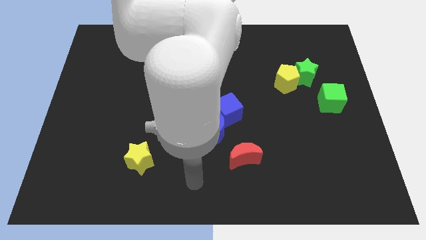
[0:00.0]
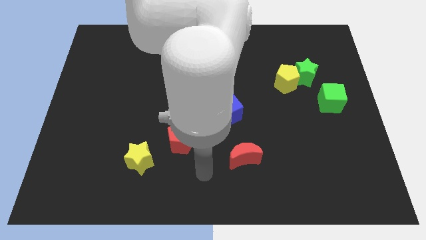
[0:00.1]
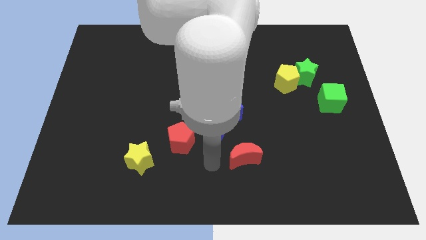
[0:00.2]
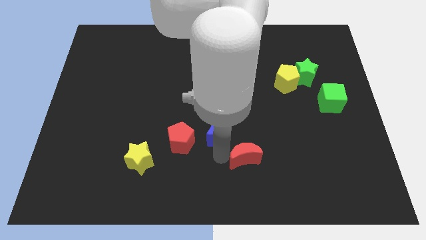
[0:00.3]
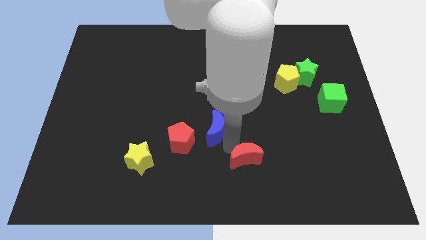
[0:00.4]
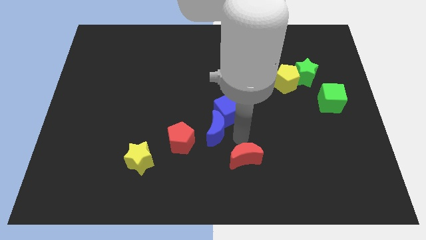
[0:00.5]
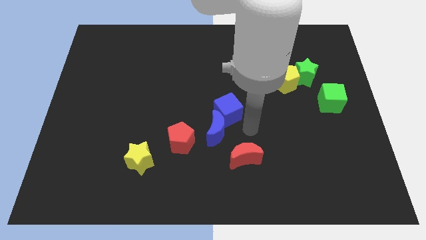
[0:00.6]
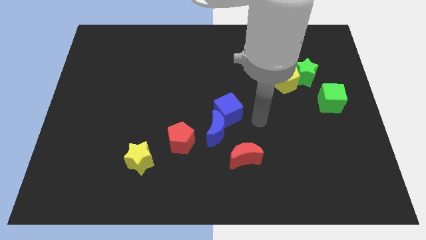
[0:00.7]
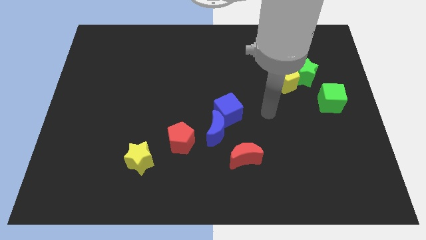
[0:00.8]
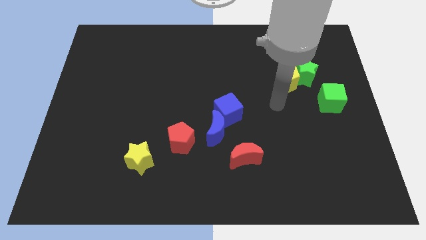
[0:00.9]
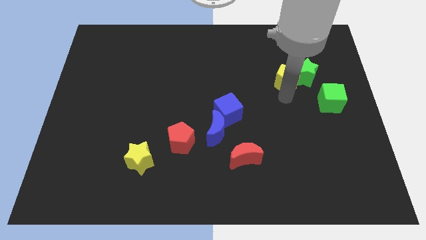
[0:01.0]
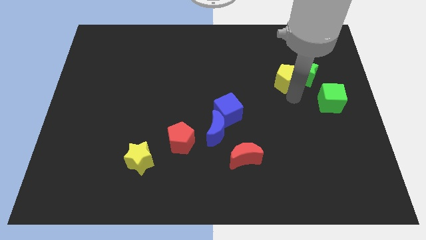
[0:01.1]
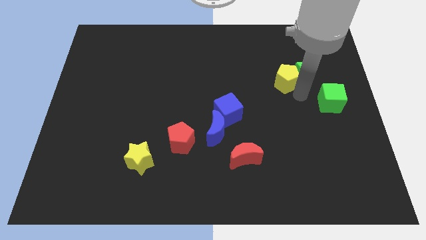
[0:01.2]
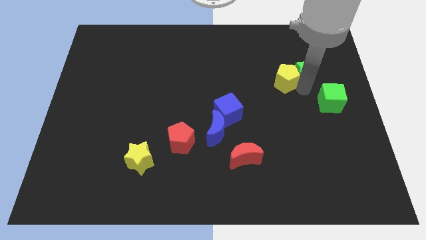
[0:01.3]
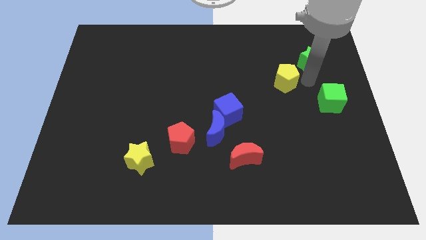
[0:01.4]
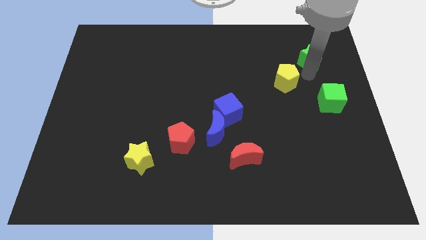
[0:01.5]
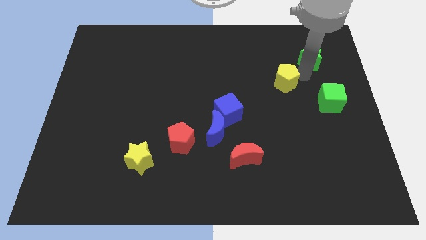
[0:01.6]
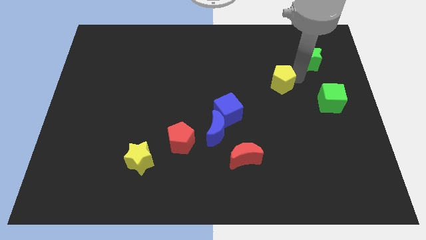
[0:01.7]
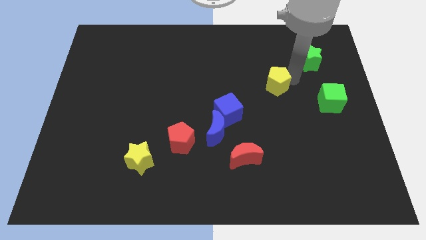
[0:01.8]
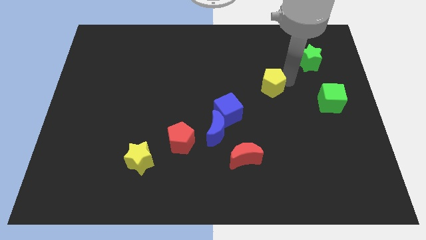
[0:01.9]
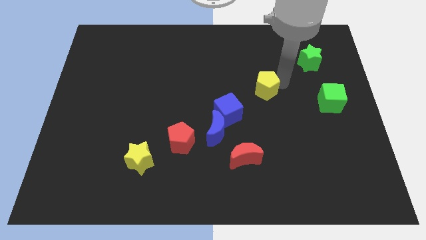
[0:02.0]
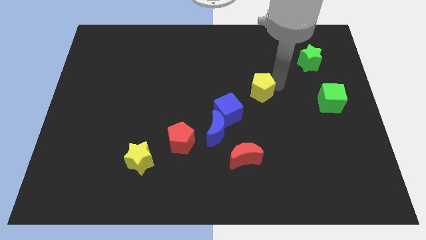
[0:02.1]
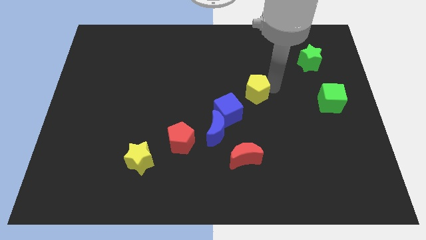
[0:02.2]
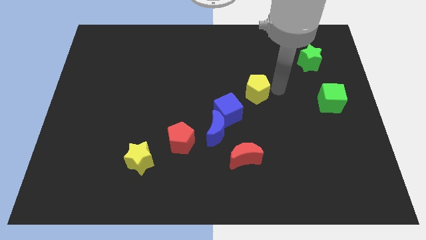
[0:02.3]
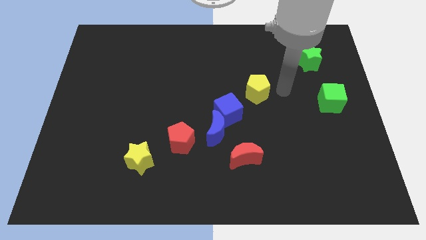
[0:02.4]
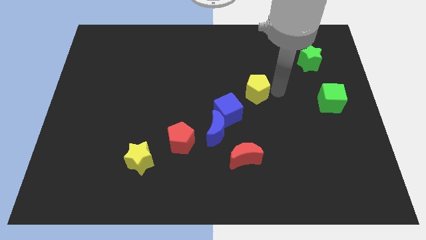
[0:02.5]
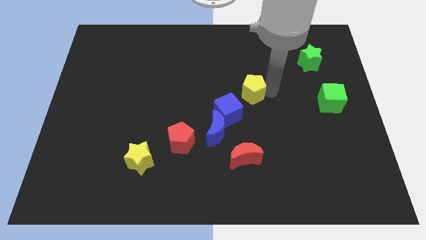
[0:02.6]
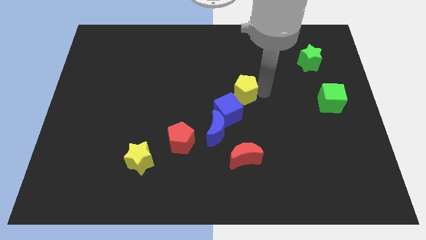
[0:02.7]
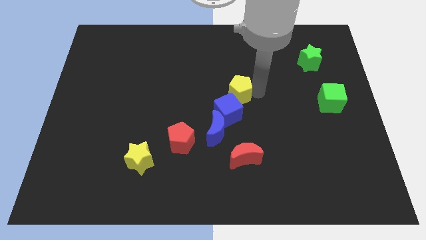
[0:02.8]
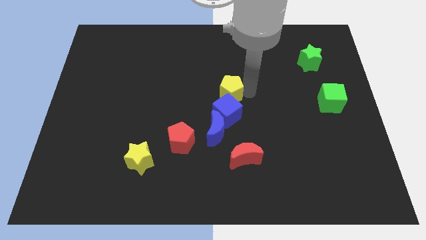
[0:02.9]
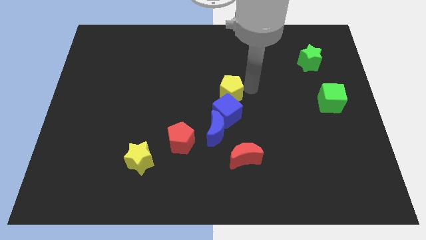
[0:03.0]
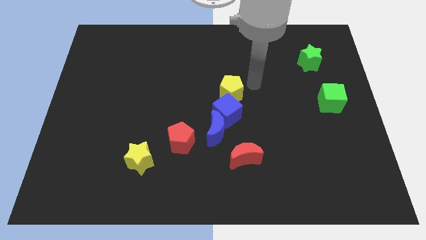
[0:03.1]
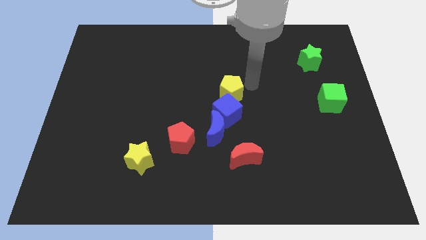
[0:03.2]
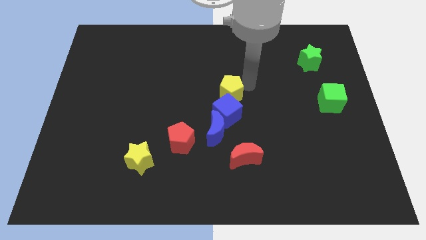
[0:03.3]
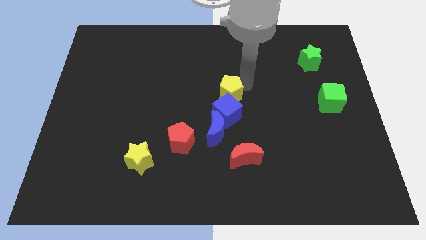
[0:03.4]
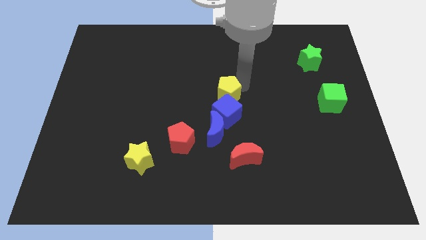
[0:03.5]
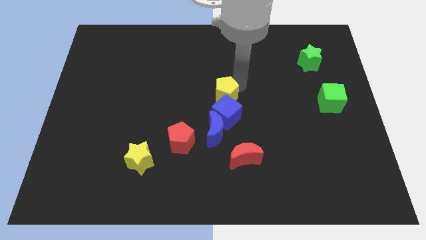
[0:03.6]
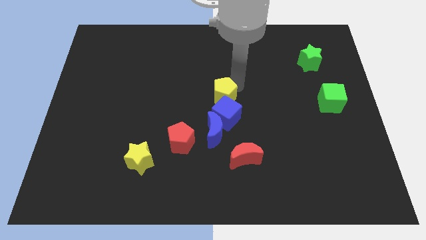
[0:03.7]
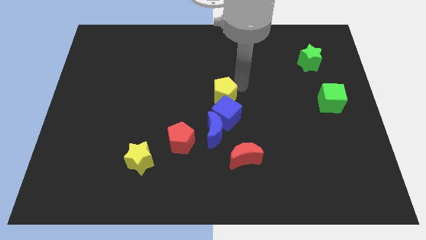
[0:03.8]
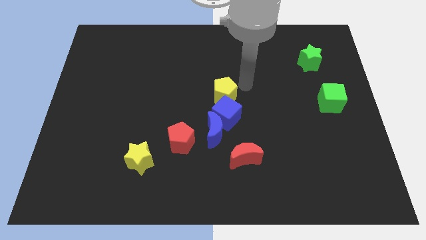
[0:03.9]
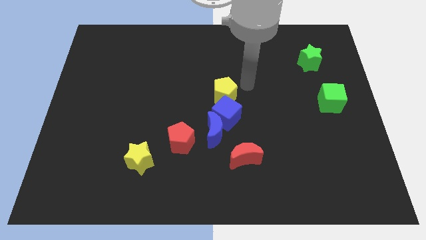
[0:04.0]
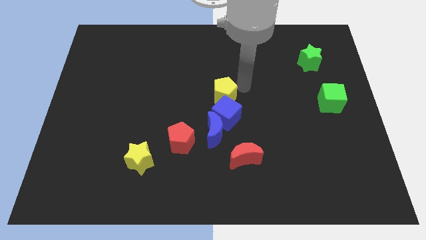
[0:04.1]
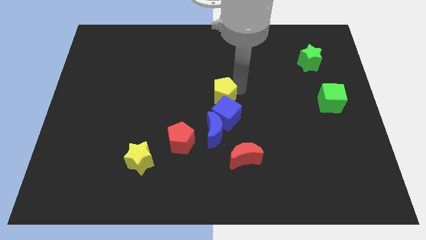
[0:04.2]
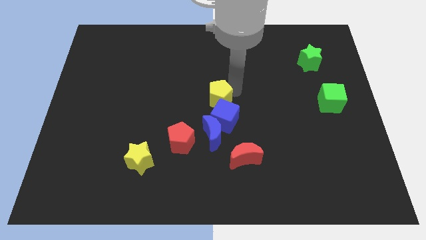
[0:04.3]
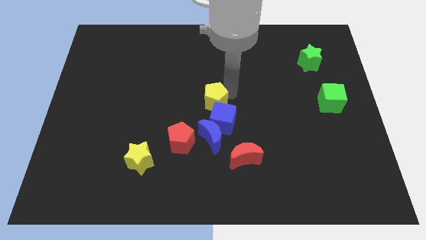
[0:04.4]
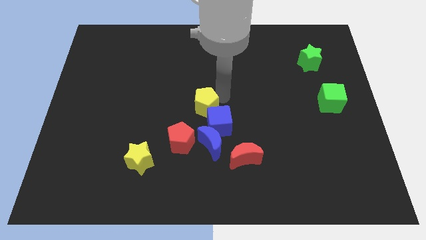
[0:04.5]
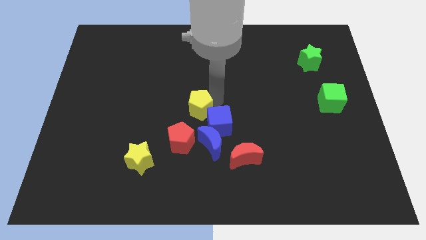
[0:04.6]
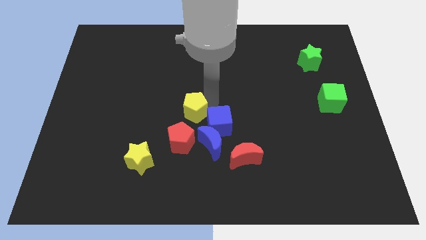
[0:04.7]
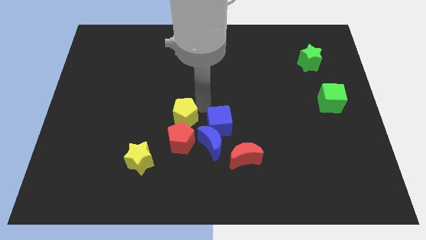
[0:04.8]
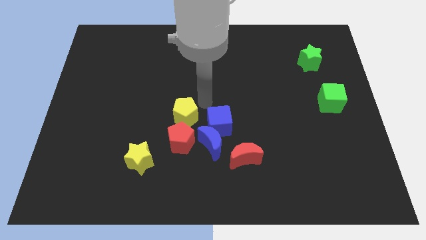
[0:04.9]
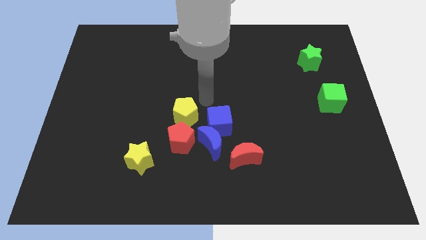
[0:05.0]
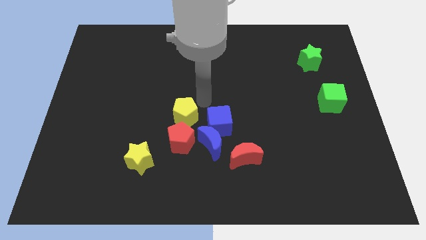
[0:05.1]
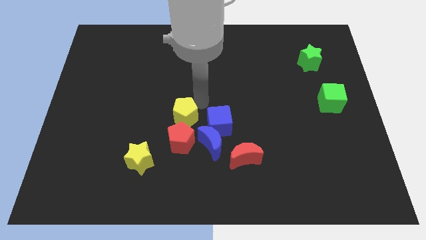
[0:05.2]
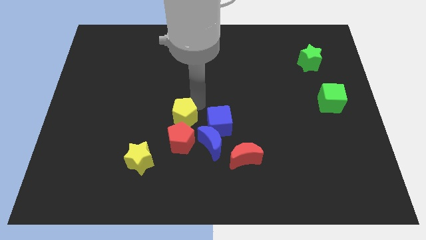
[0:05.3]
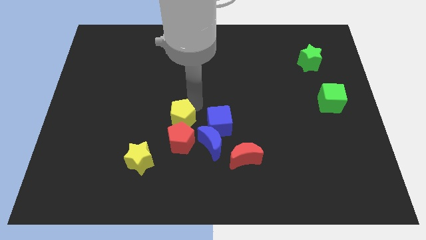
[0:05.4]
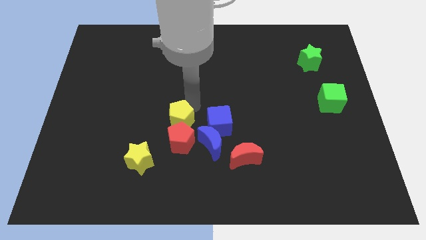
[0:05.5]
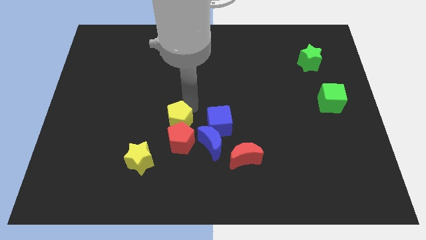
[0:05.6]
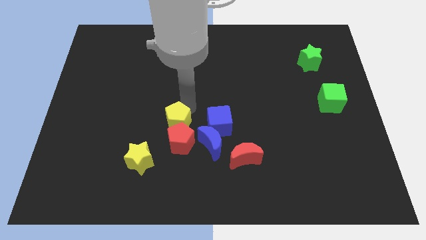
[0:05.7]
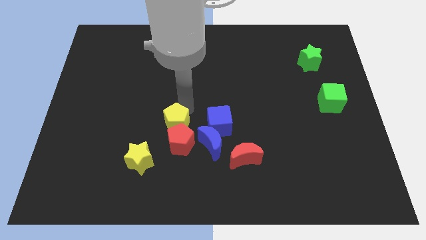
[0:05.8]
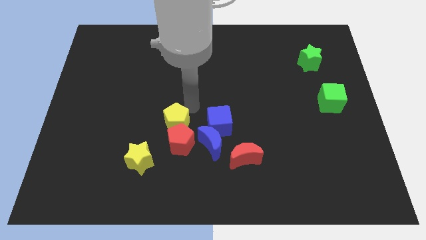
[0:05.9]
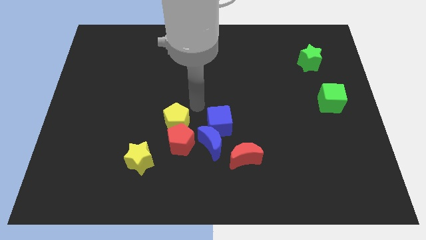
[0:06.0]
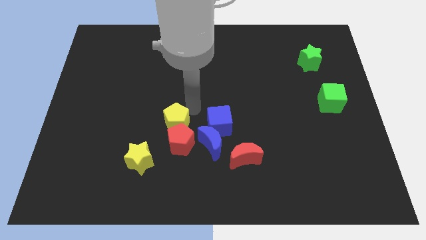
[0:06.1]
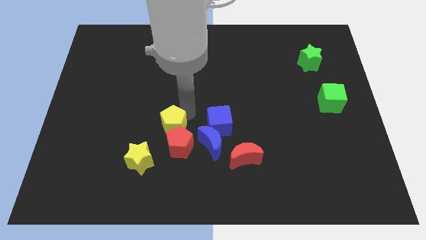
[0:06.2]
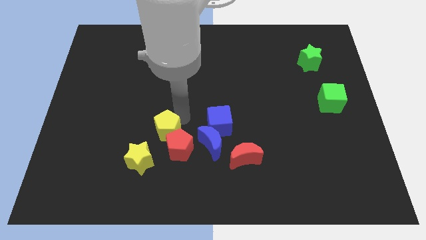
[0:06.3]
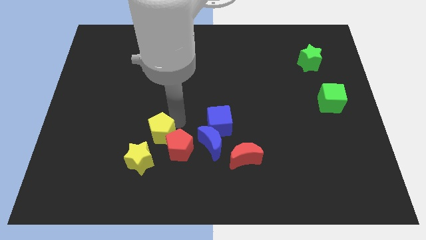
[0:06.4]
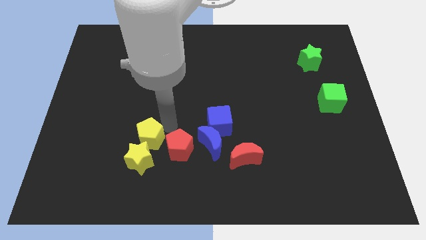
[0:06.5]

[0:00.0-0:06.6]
push the yellow pentagon to the yellow star

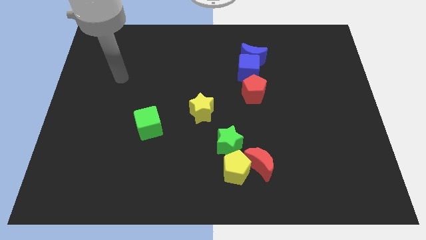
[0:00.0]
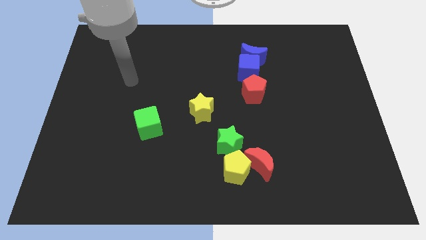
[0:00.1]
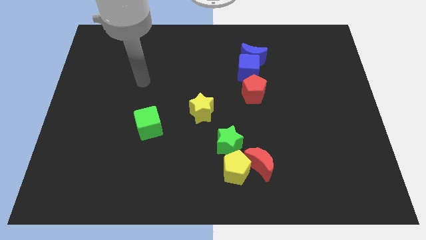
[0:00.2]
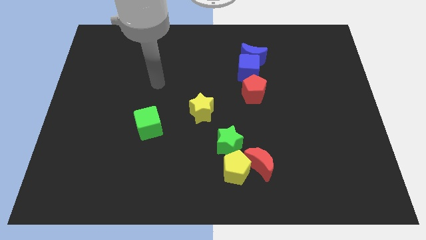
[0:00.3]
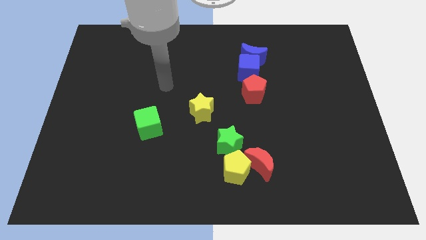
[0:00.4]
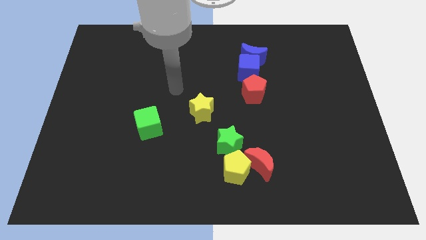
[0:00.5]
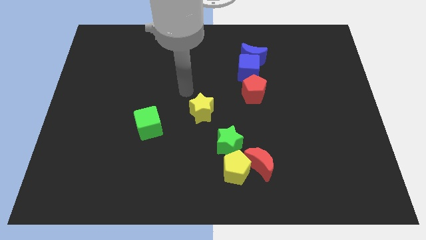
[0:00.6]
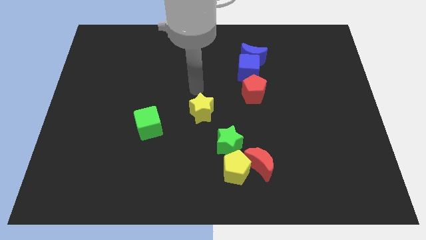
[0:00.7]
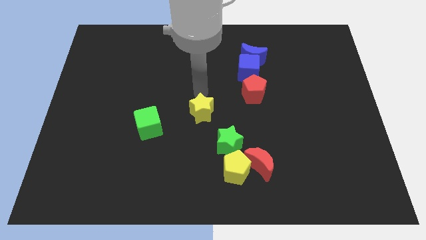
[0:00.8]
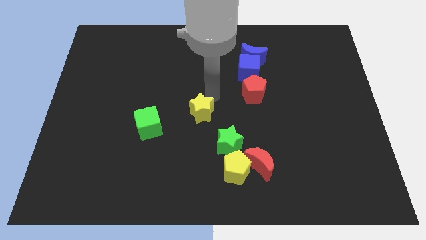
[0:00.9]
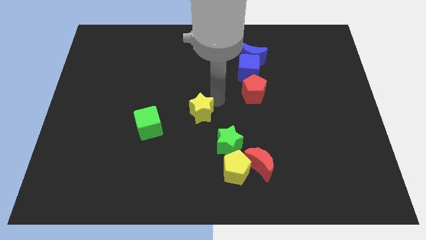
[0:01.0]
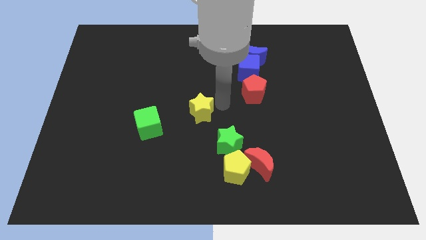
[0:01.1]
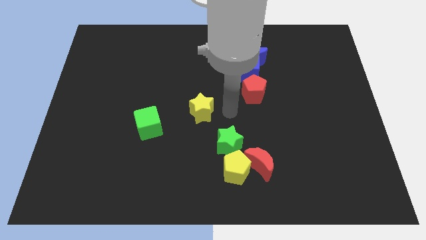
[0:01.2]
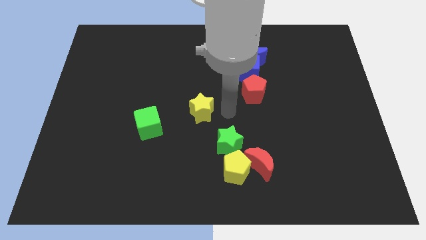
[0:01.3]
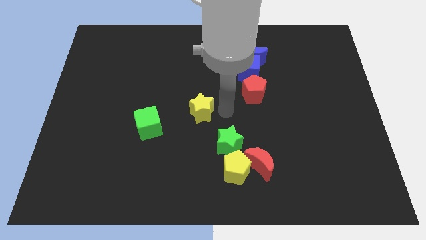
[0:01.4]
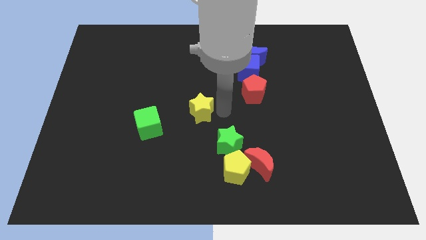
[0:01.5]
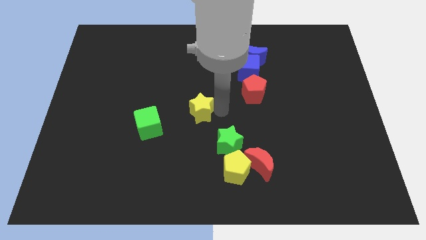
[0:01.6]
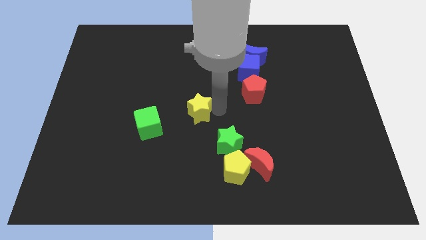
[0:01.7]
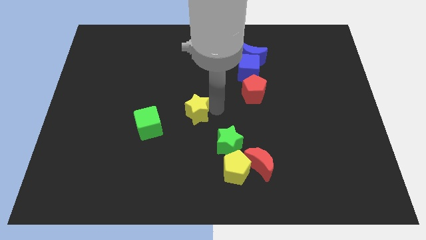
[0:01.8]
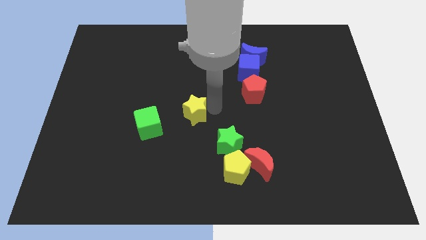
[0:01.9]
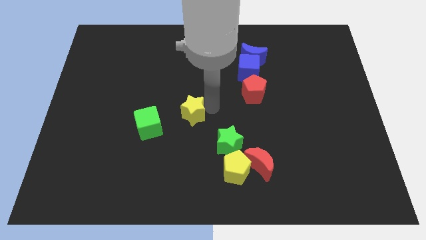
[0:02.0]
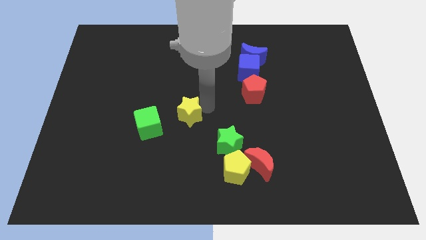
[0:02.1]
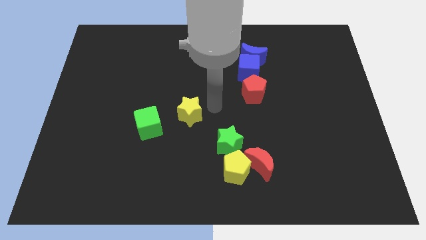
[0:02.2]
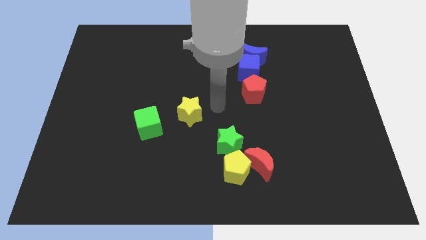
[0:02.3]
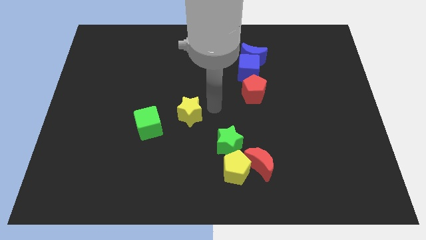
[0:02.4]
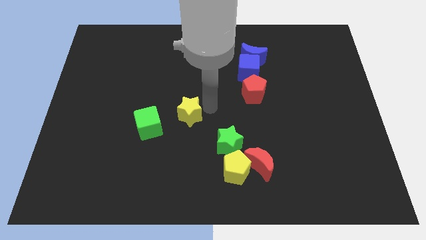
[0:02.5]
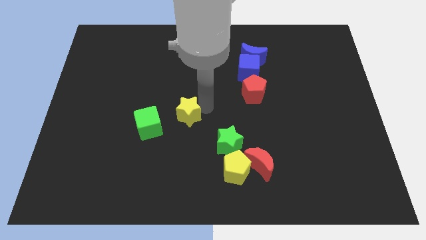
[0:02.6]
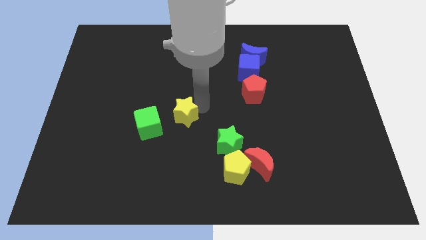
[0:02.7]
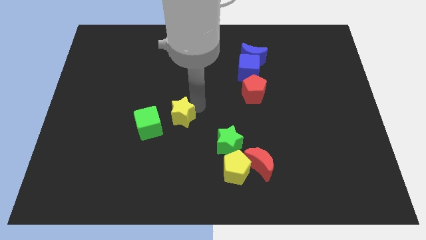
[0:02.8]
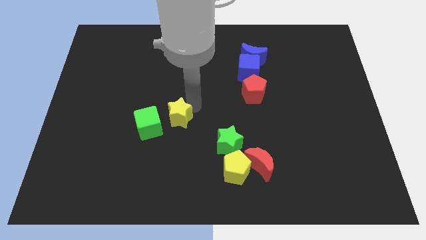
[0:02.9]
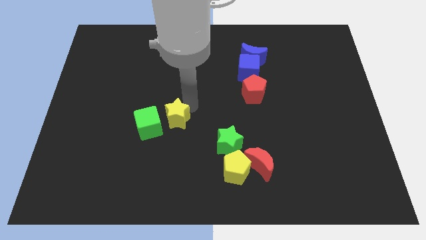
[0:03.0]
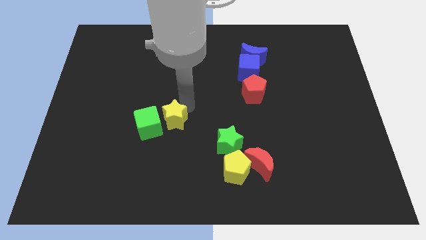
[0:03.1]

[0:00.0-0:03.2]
move the yellow star close to the green cube
